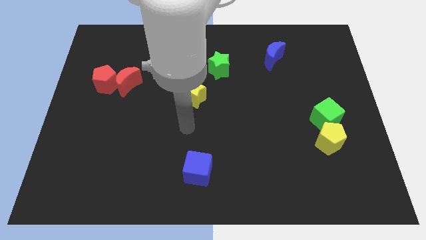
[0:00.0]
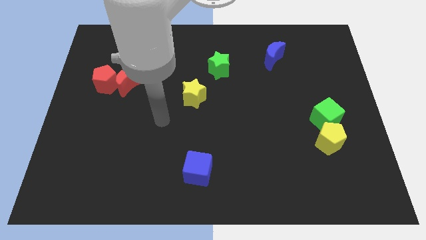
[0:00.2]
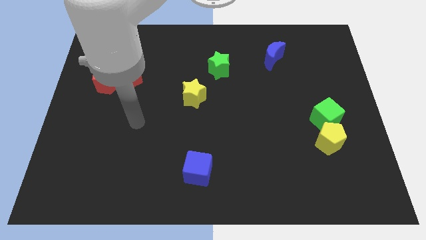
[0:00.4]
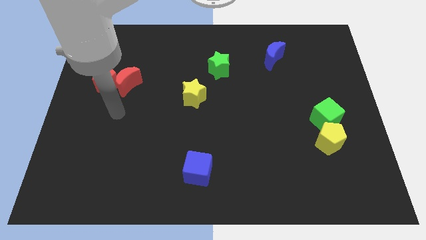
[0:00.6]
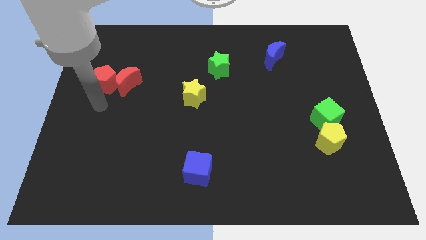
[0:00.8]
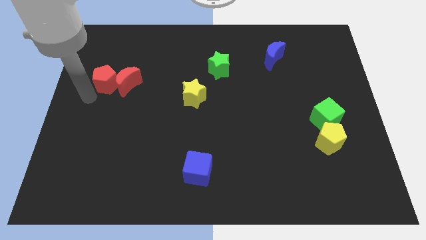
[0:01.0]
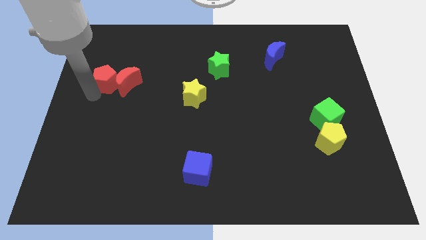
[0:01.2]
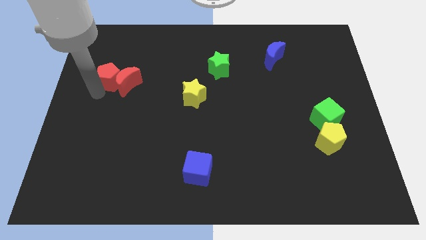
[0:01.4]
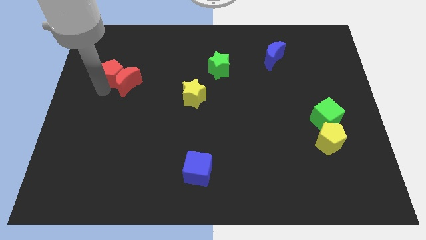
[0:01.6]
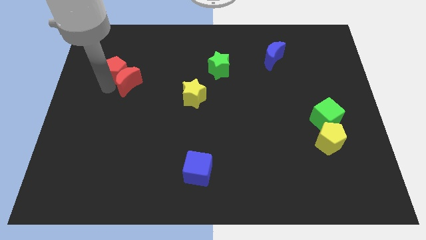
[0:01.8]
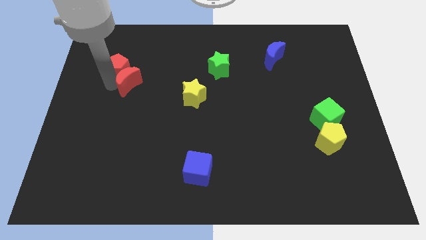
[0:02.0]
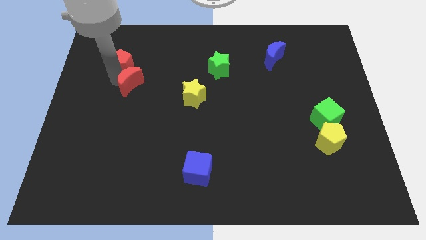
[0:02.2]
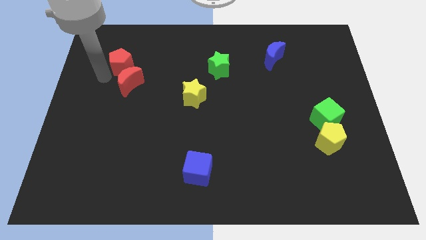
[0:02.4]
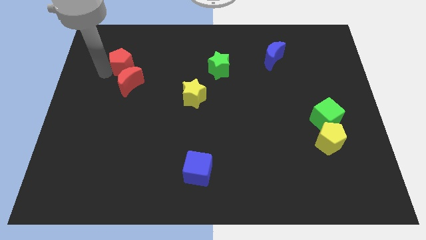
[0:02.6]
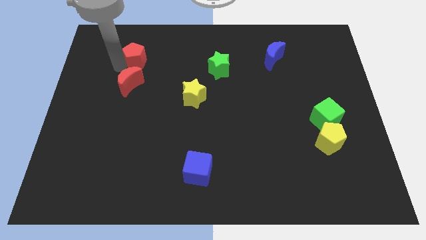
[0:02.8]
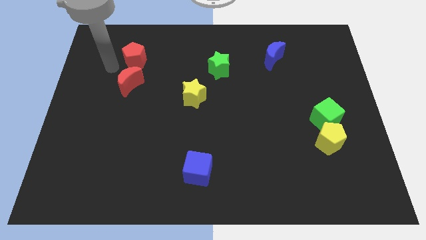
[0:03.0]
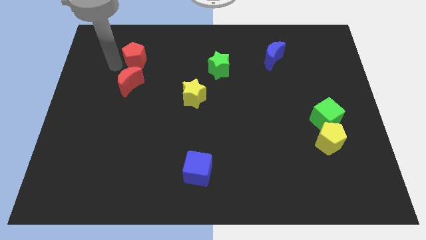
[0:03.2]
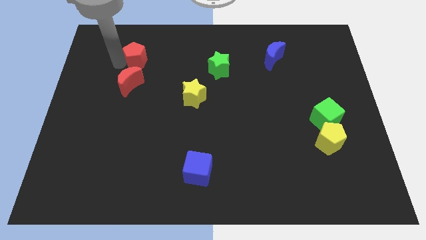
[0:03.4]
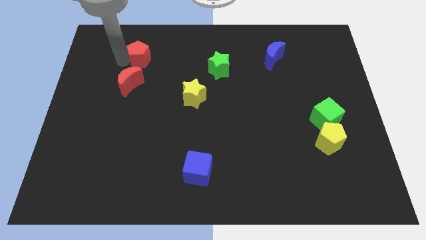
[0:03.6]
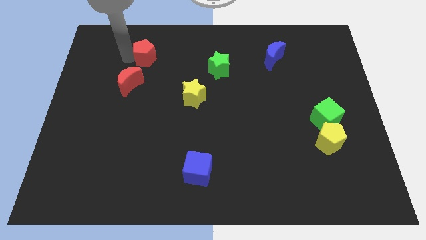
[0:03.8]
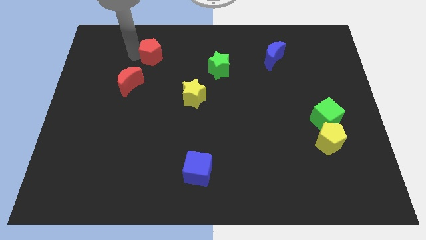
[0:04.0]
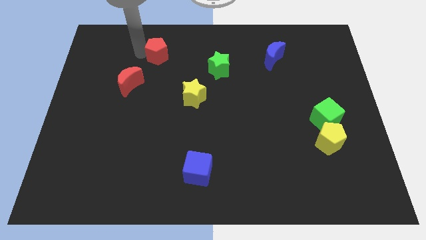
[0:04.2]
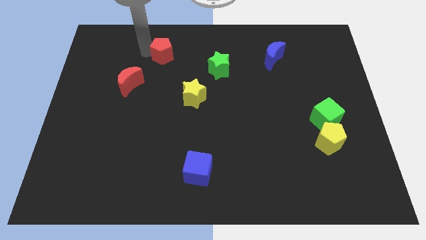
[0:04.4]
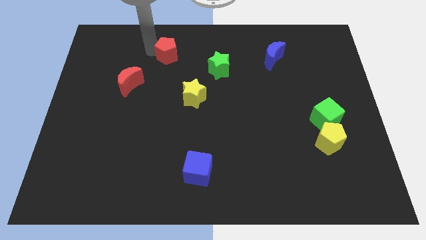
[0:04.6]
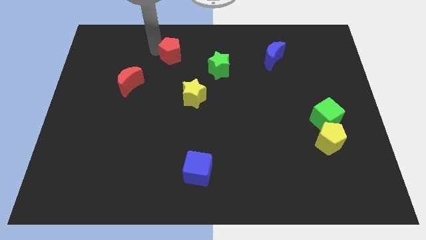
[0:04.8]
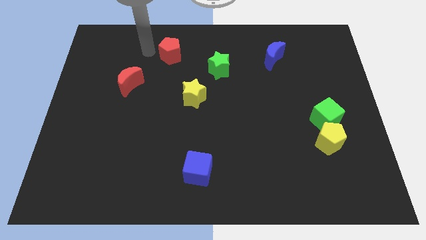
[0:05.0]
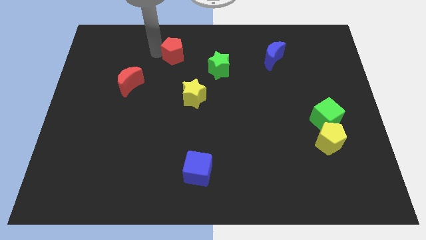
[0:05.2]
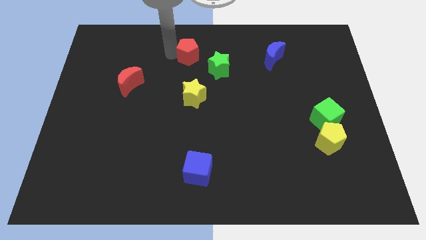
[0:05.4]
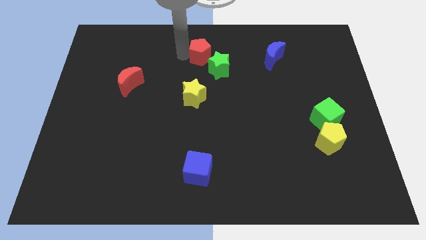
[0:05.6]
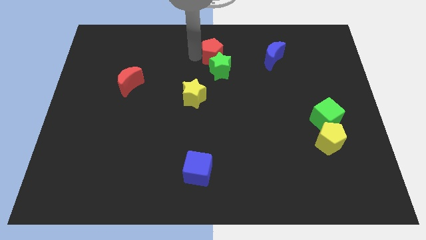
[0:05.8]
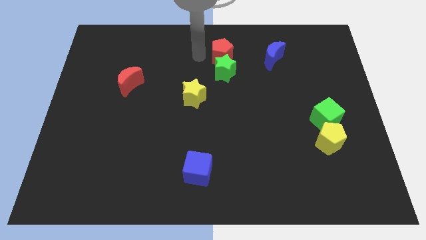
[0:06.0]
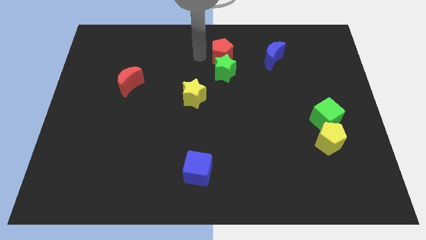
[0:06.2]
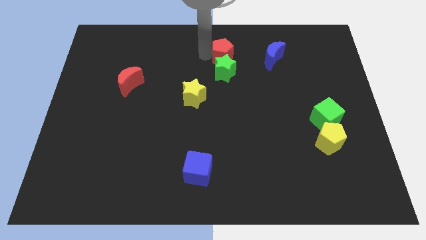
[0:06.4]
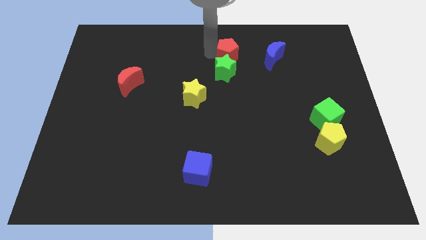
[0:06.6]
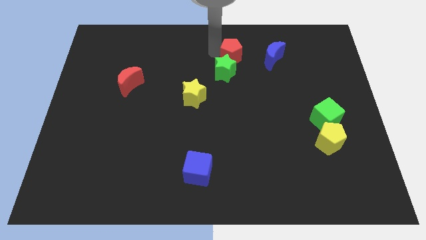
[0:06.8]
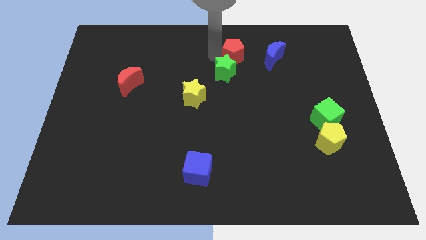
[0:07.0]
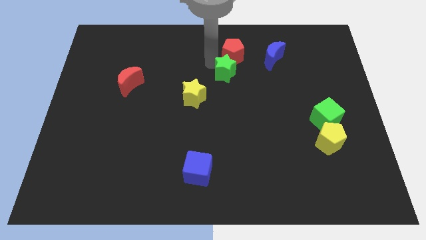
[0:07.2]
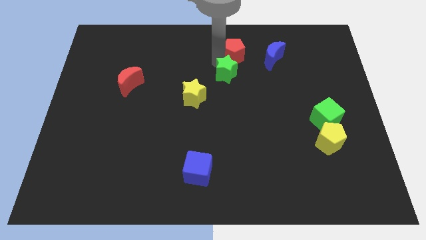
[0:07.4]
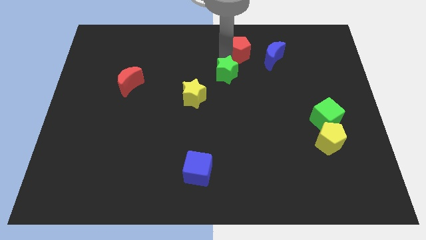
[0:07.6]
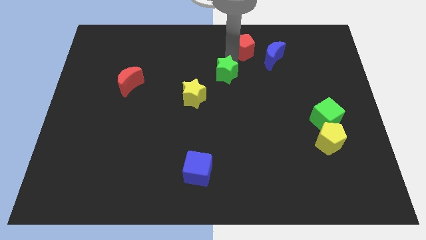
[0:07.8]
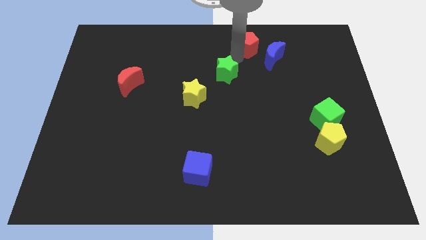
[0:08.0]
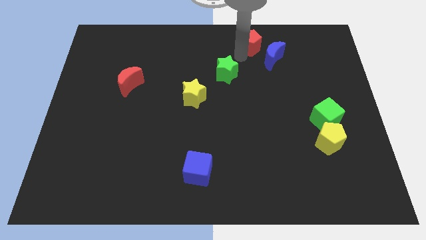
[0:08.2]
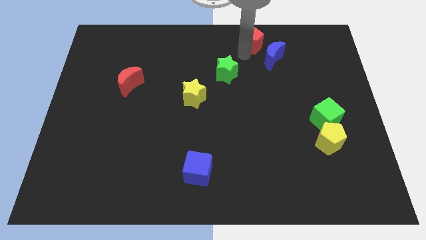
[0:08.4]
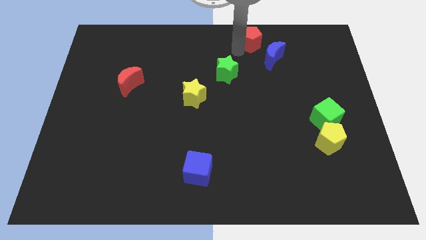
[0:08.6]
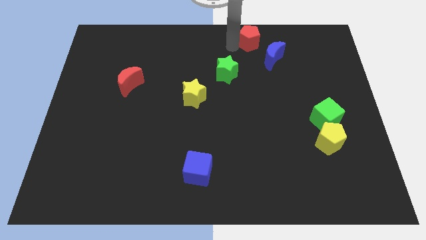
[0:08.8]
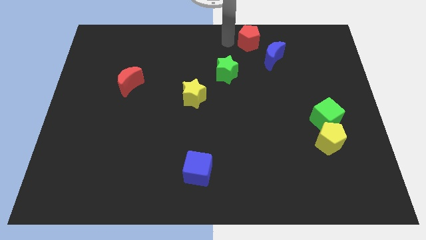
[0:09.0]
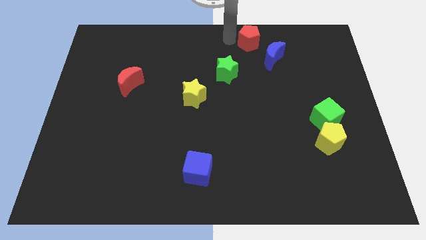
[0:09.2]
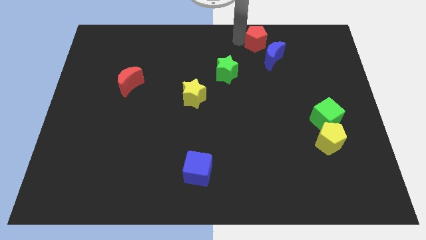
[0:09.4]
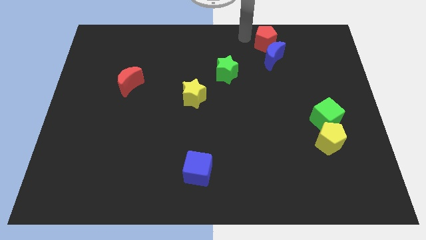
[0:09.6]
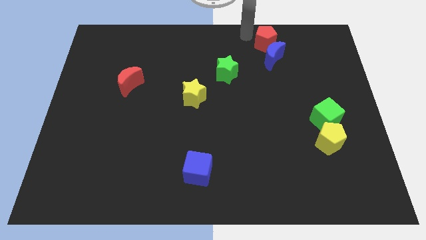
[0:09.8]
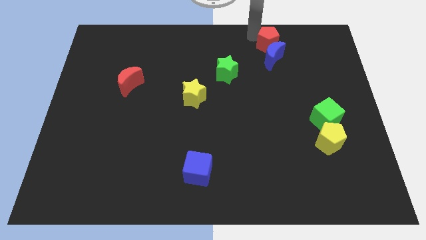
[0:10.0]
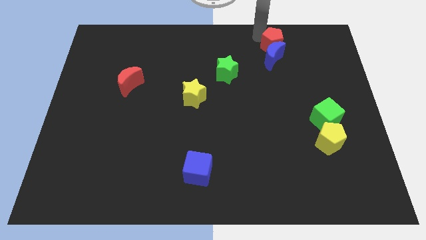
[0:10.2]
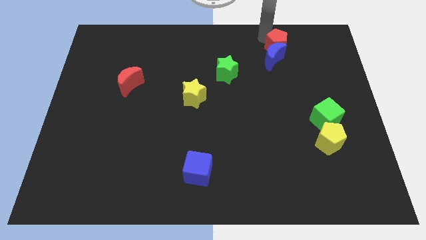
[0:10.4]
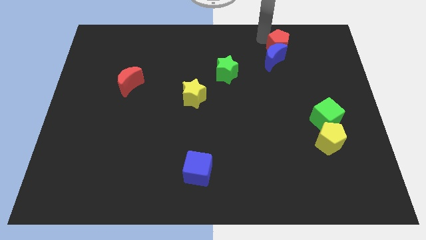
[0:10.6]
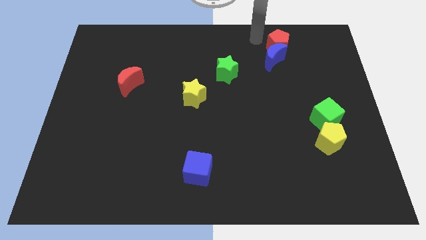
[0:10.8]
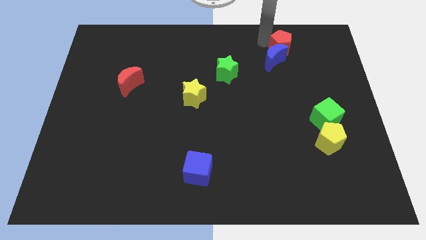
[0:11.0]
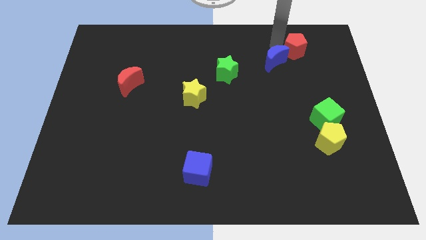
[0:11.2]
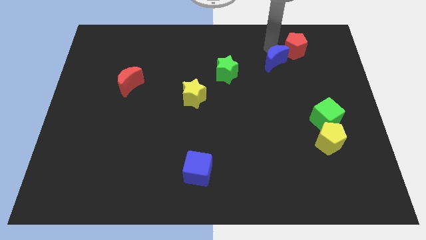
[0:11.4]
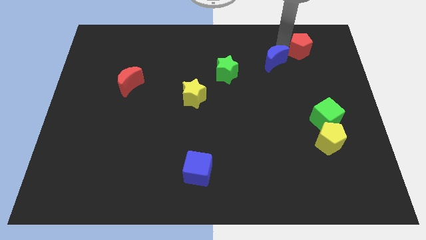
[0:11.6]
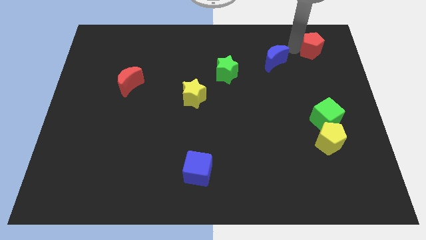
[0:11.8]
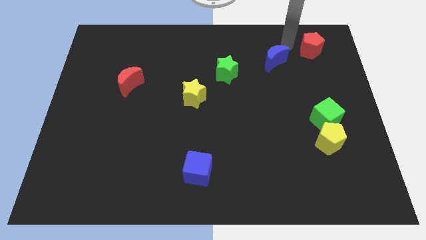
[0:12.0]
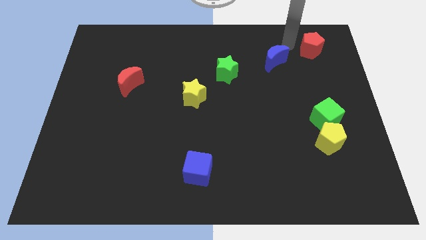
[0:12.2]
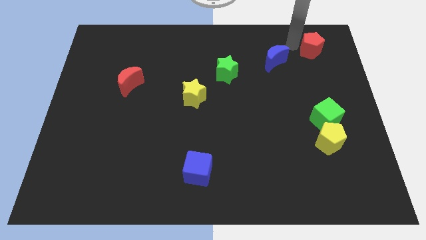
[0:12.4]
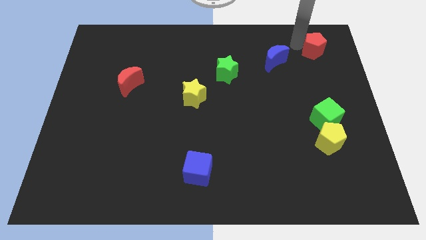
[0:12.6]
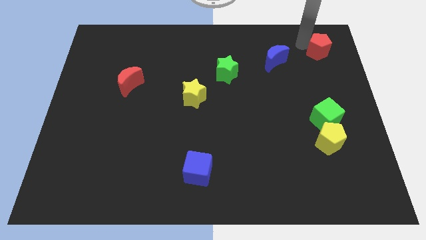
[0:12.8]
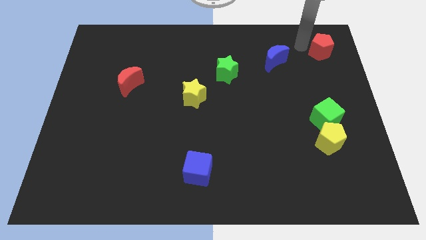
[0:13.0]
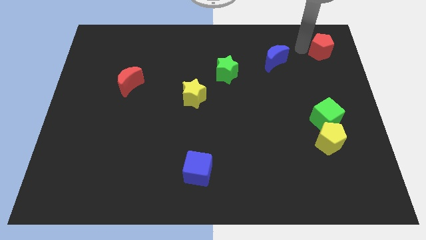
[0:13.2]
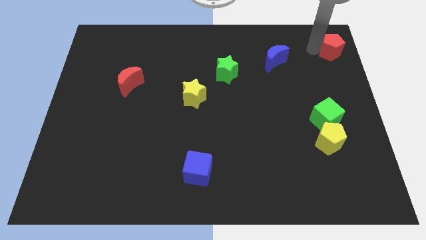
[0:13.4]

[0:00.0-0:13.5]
put the red pentagon to the top right
